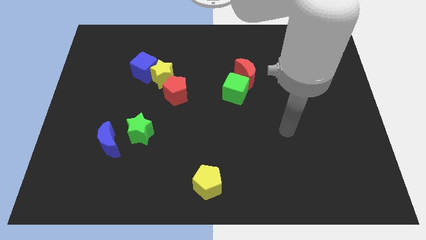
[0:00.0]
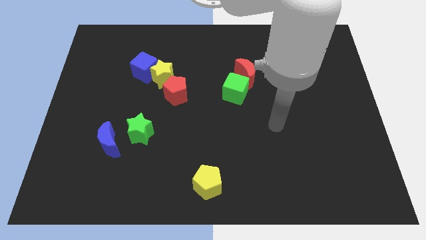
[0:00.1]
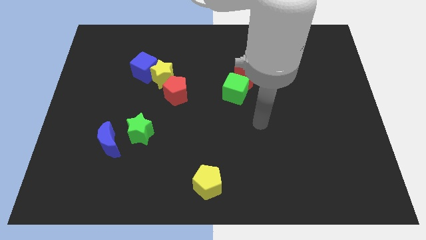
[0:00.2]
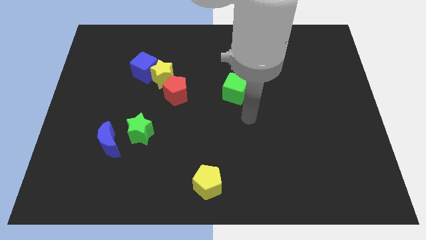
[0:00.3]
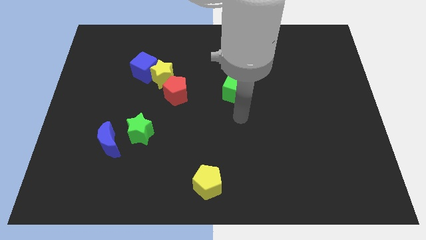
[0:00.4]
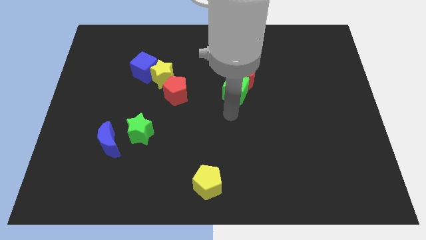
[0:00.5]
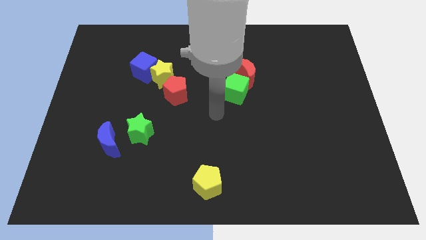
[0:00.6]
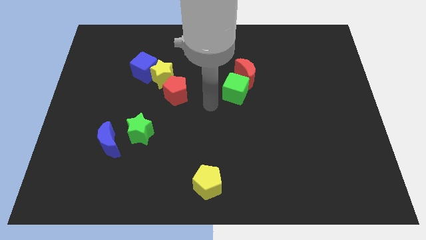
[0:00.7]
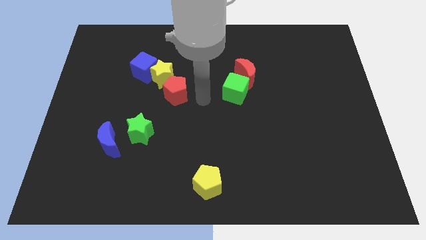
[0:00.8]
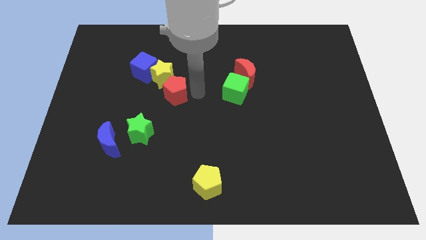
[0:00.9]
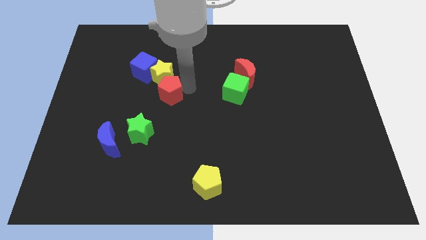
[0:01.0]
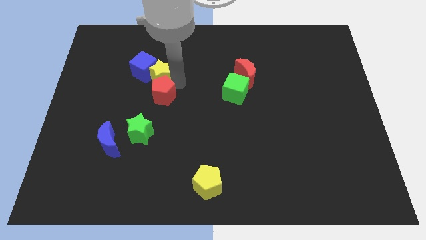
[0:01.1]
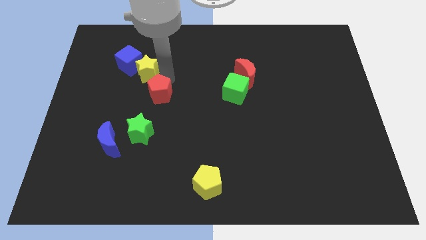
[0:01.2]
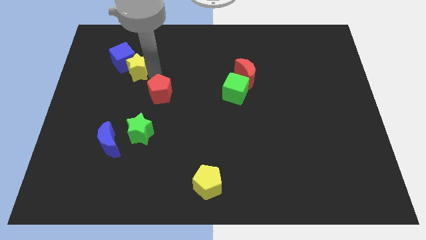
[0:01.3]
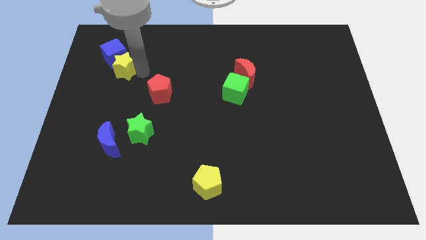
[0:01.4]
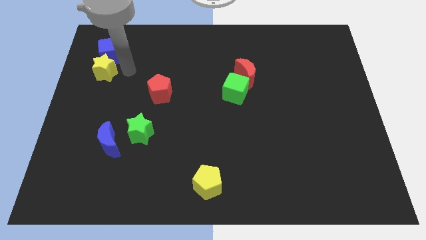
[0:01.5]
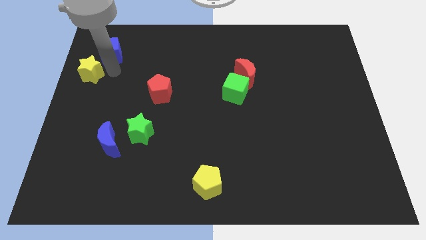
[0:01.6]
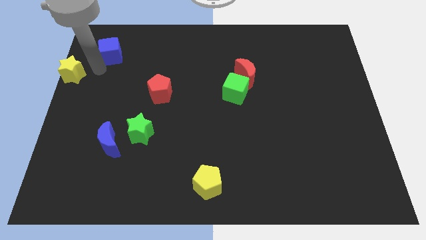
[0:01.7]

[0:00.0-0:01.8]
move the blue cube away from the yellow star

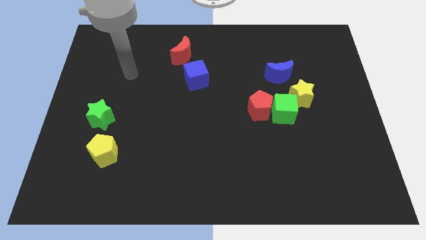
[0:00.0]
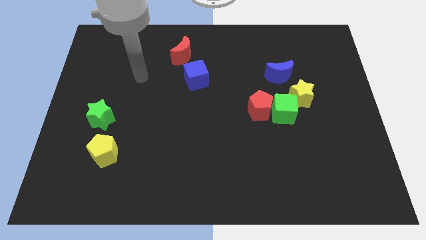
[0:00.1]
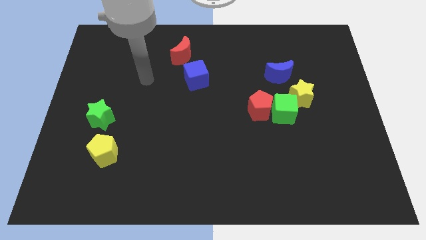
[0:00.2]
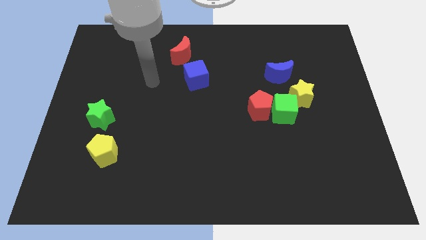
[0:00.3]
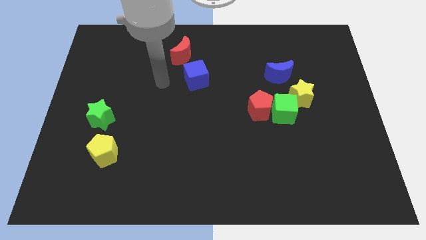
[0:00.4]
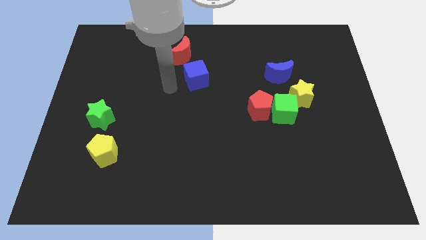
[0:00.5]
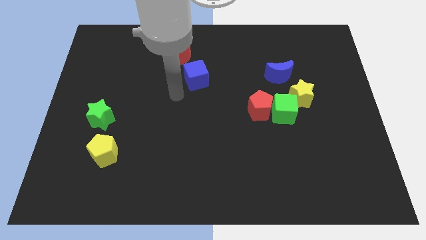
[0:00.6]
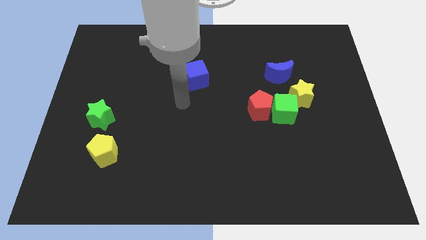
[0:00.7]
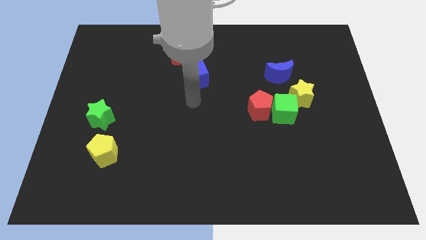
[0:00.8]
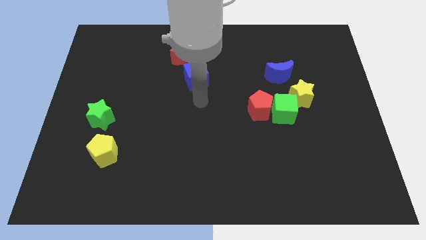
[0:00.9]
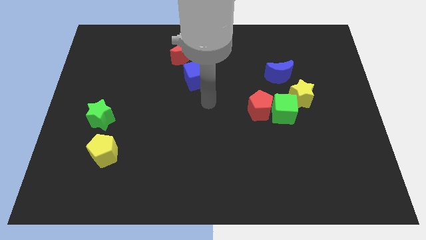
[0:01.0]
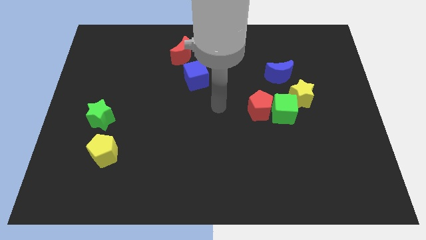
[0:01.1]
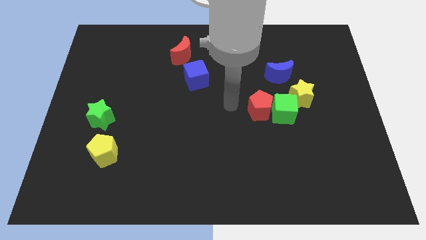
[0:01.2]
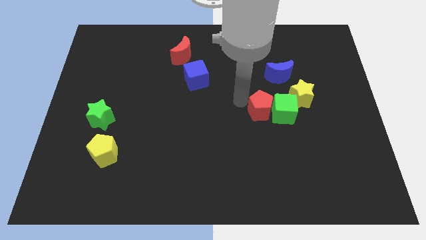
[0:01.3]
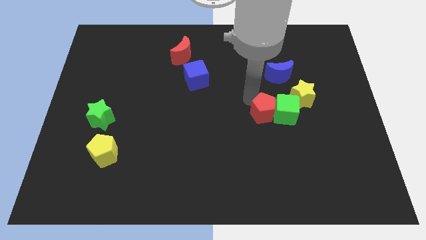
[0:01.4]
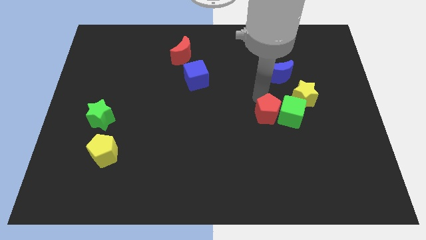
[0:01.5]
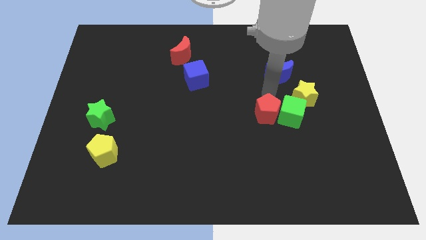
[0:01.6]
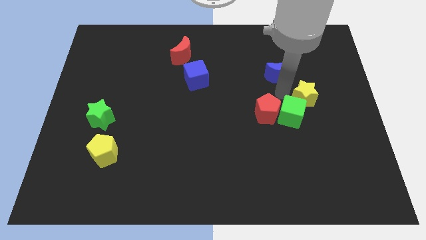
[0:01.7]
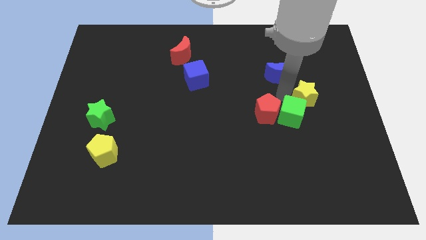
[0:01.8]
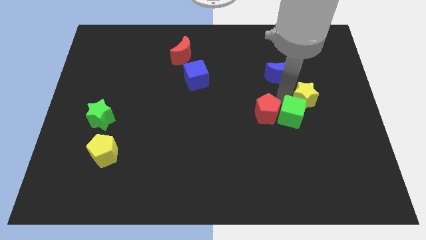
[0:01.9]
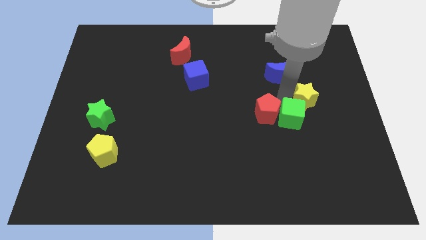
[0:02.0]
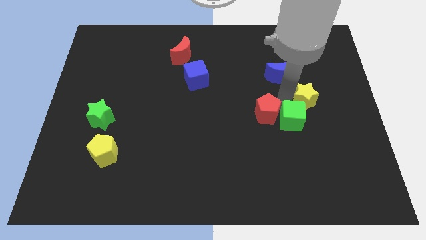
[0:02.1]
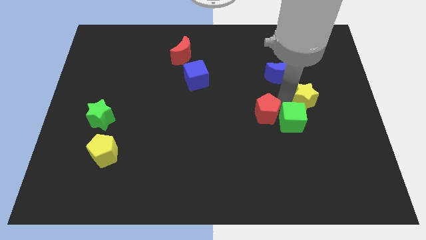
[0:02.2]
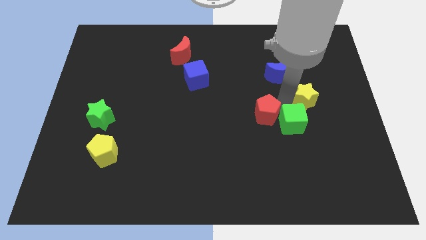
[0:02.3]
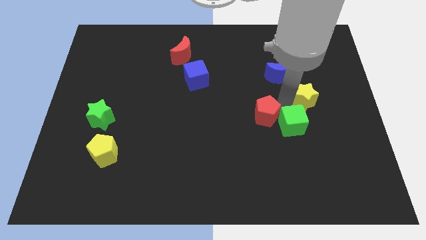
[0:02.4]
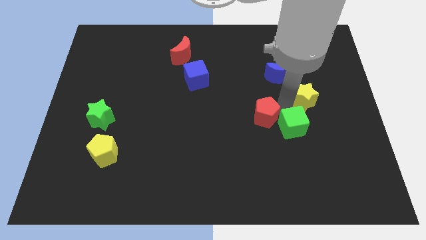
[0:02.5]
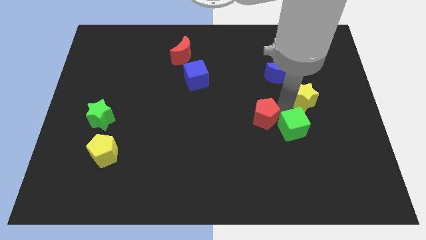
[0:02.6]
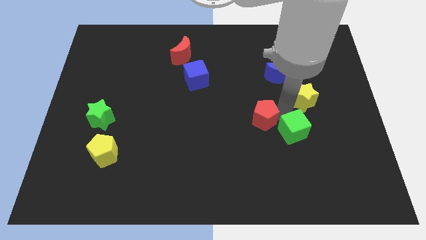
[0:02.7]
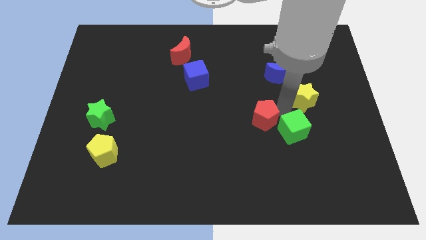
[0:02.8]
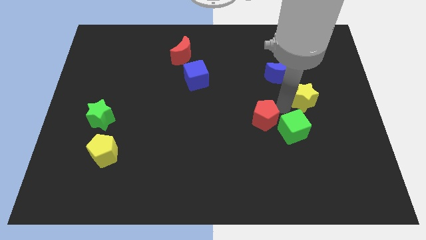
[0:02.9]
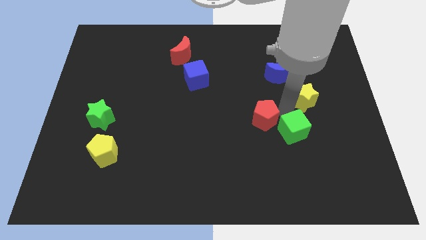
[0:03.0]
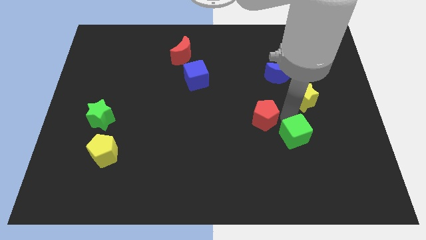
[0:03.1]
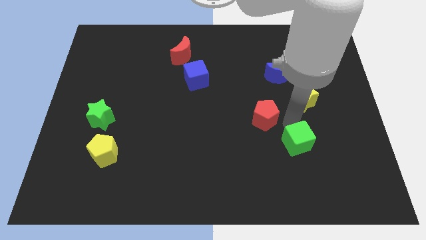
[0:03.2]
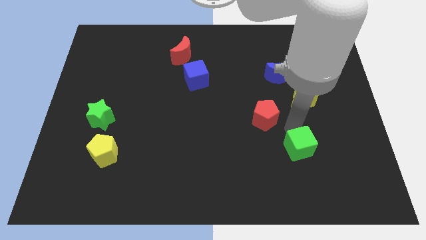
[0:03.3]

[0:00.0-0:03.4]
move the green cube away from the red pentagon and yellow star

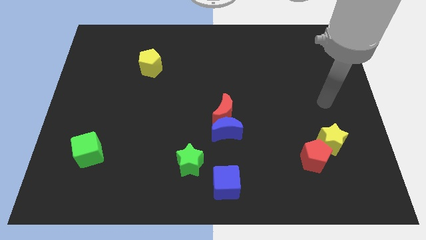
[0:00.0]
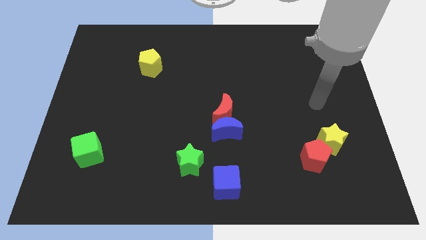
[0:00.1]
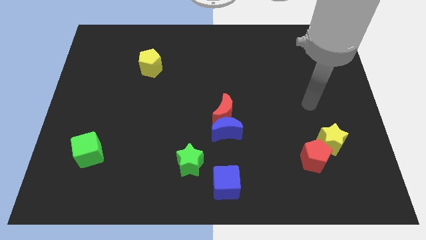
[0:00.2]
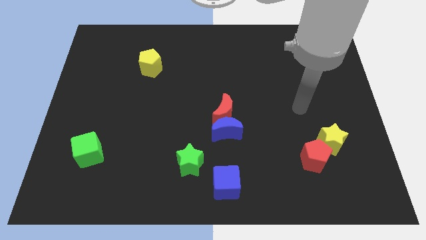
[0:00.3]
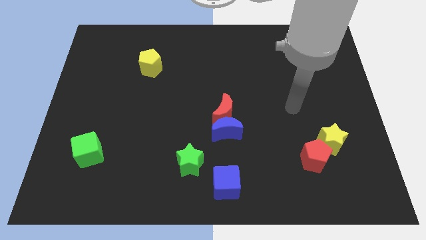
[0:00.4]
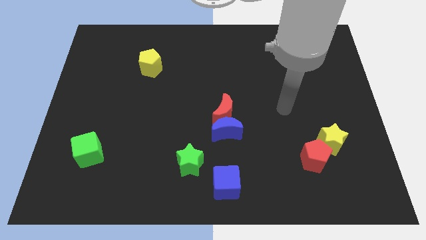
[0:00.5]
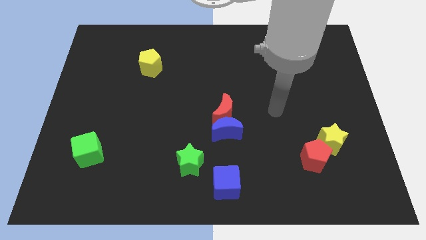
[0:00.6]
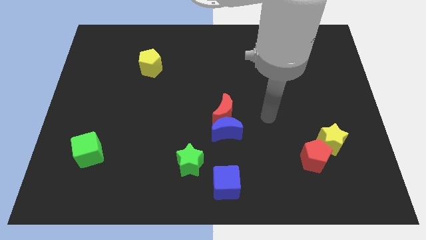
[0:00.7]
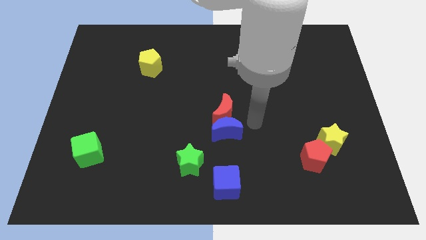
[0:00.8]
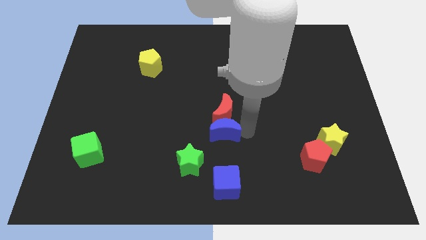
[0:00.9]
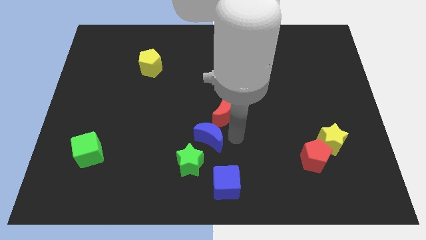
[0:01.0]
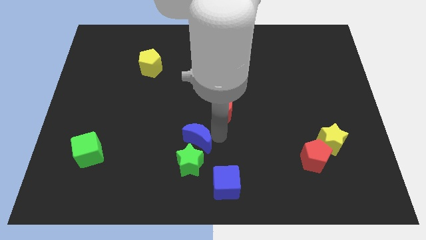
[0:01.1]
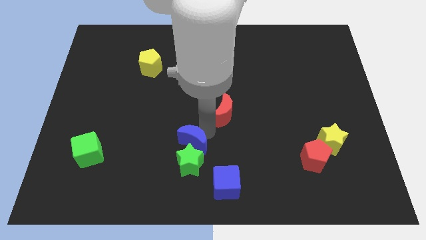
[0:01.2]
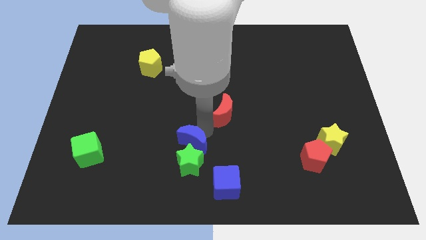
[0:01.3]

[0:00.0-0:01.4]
pull the red moon apart from the blue moon

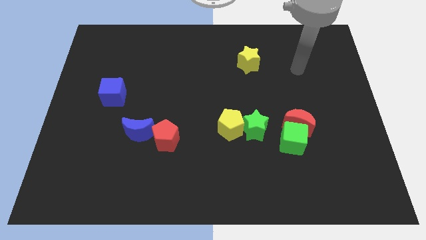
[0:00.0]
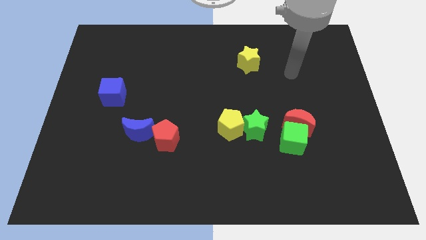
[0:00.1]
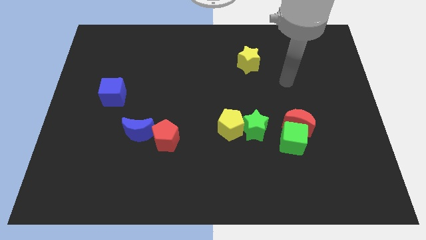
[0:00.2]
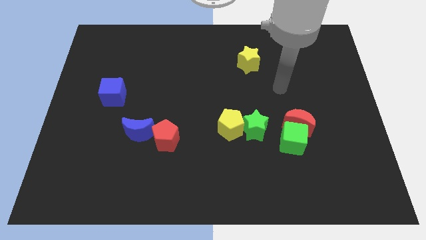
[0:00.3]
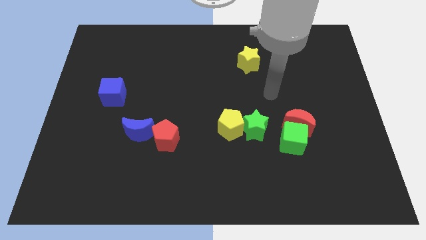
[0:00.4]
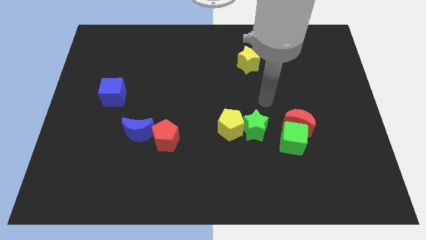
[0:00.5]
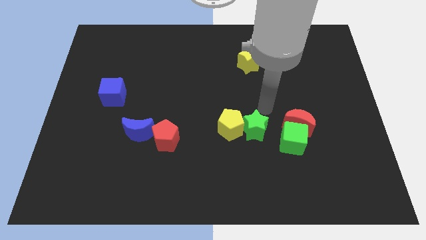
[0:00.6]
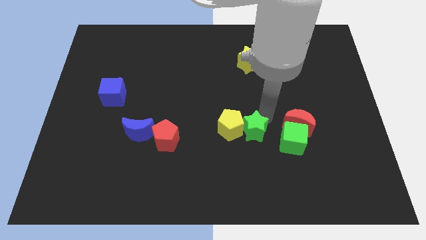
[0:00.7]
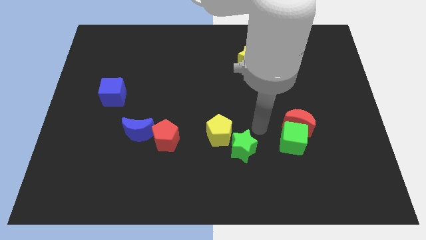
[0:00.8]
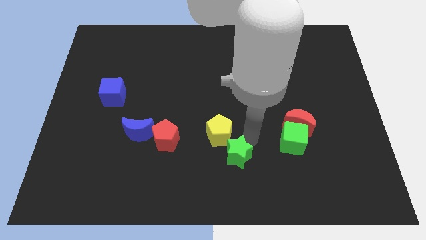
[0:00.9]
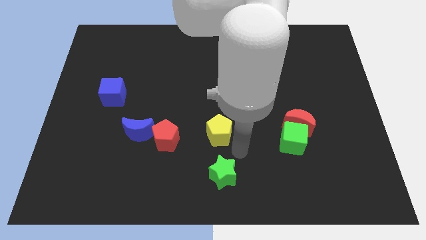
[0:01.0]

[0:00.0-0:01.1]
separate the yellow pentagon from the green star

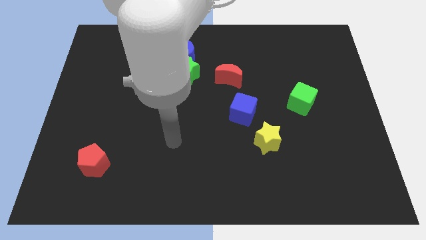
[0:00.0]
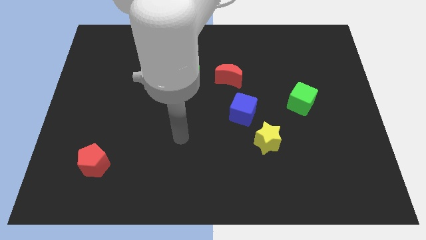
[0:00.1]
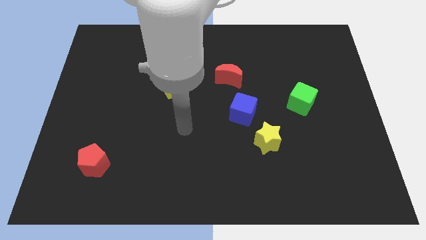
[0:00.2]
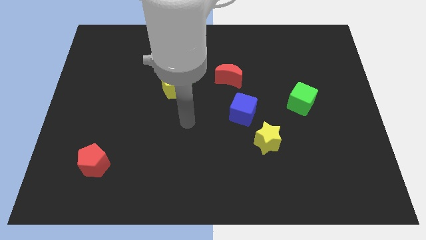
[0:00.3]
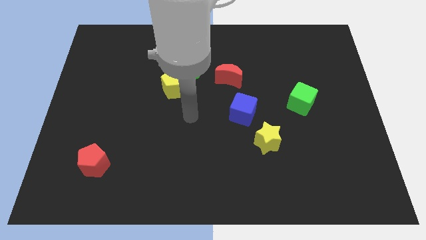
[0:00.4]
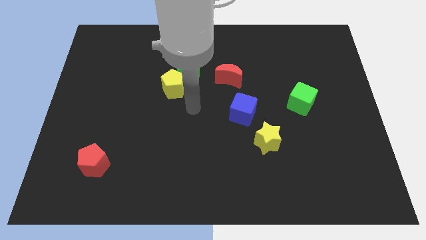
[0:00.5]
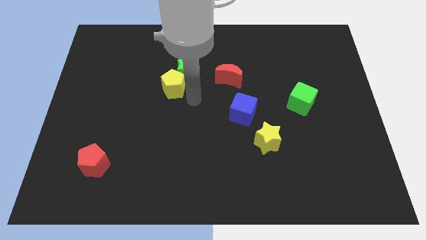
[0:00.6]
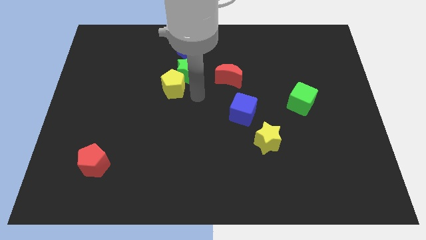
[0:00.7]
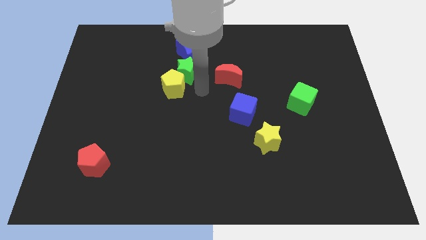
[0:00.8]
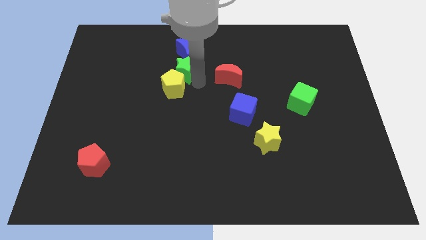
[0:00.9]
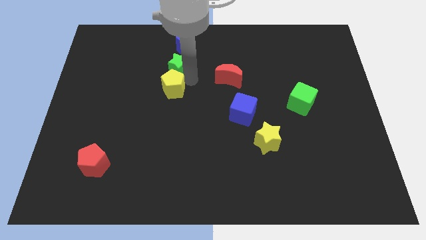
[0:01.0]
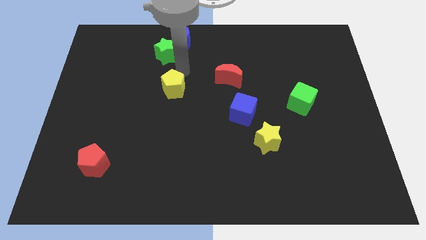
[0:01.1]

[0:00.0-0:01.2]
move the yellow pentagon away from the green star

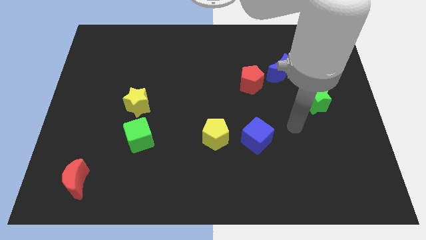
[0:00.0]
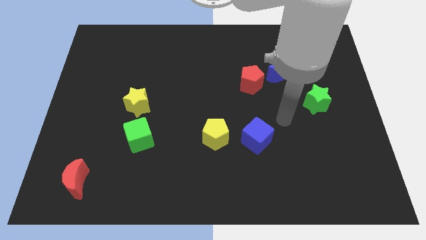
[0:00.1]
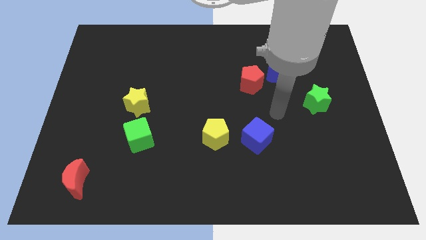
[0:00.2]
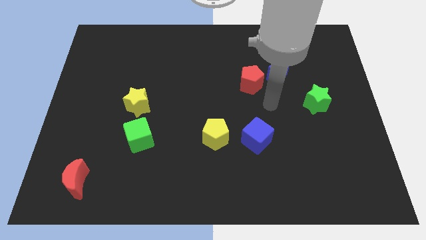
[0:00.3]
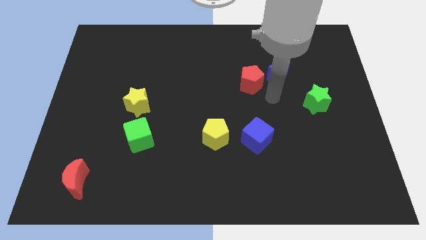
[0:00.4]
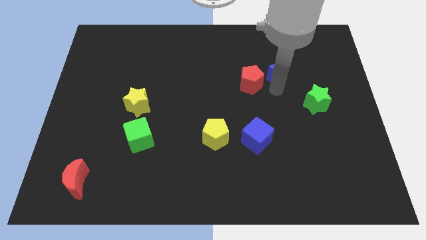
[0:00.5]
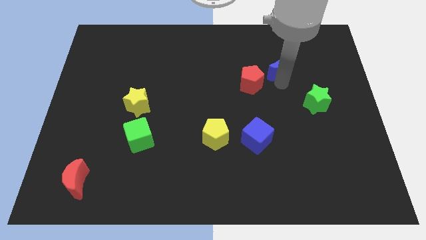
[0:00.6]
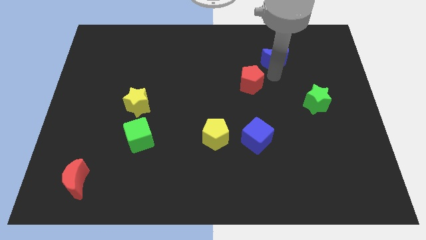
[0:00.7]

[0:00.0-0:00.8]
move the red pentagon away from the blue moon
